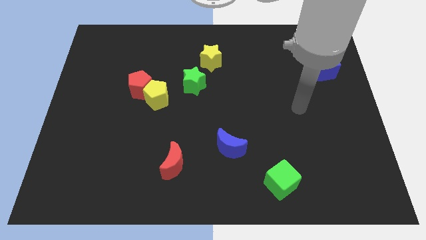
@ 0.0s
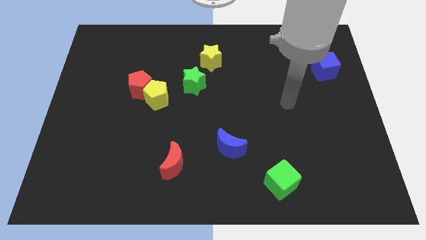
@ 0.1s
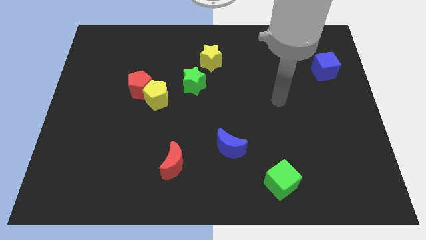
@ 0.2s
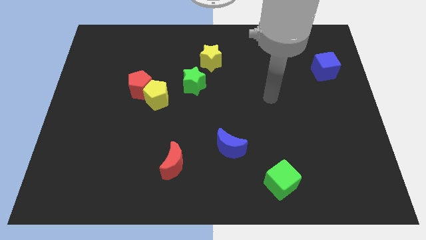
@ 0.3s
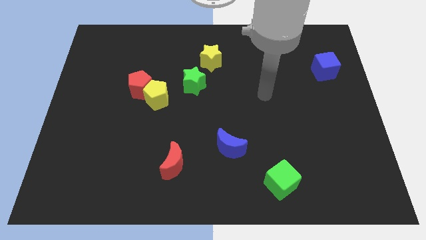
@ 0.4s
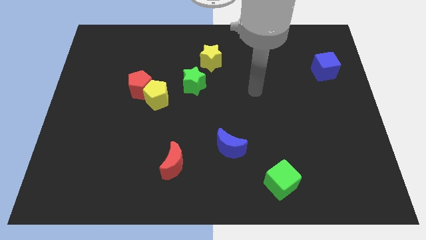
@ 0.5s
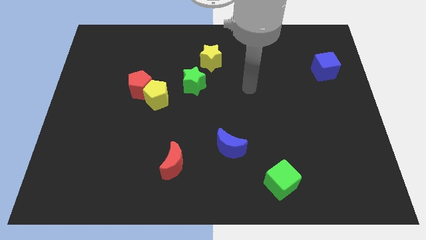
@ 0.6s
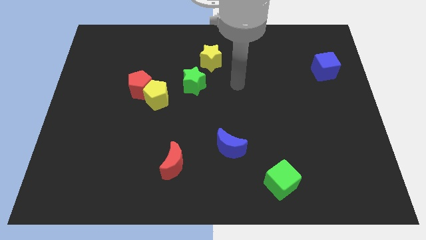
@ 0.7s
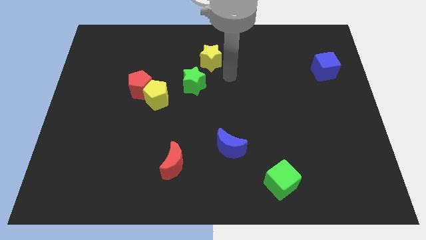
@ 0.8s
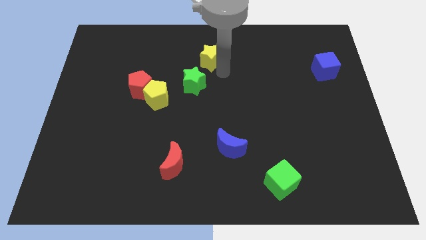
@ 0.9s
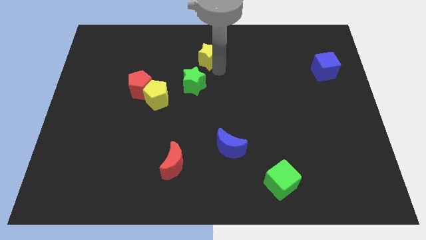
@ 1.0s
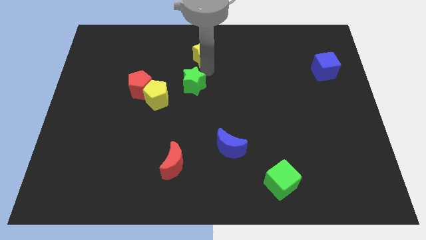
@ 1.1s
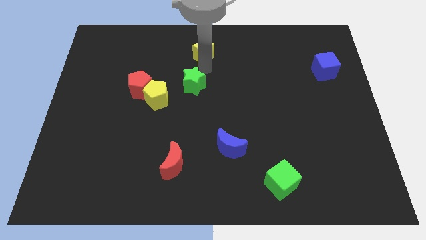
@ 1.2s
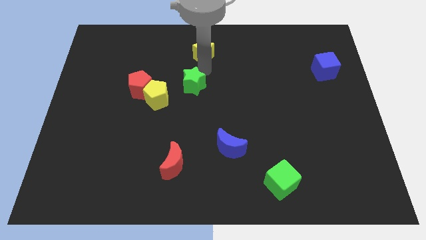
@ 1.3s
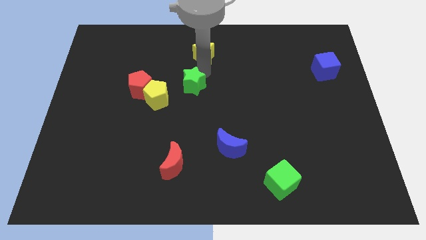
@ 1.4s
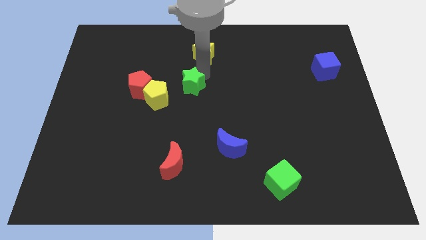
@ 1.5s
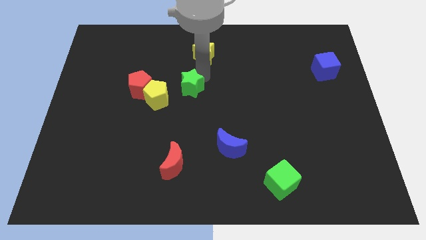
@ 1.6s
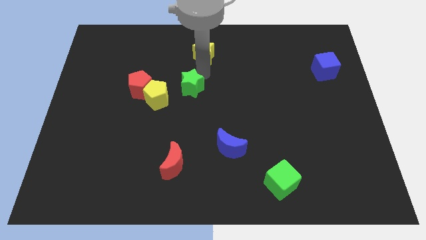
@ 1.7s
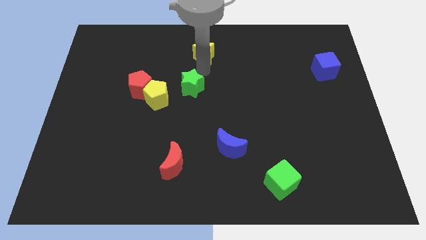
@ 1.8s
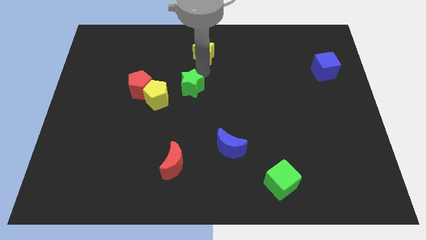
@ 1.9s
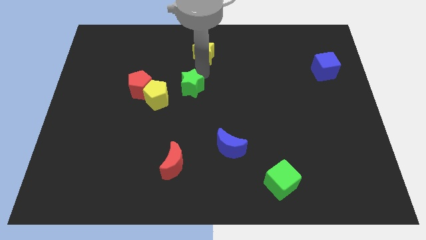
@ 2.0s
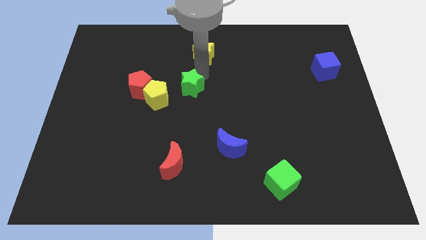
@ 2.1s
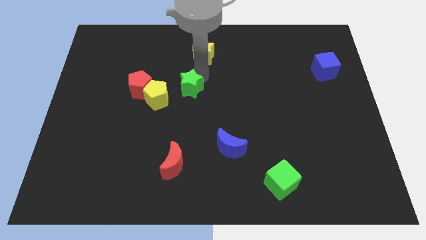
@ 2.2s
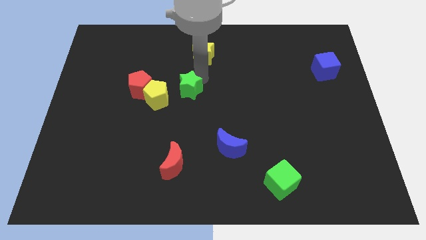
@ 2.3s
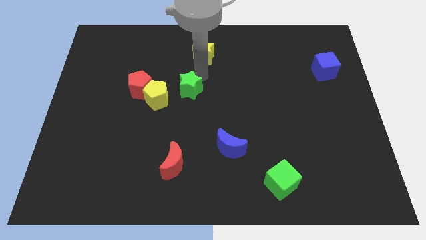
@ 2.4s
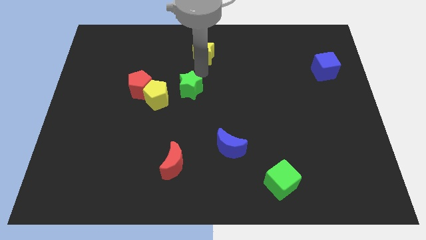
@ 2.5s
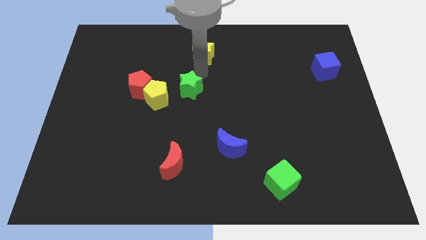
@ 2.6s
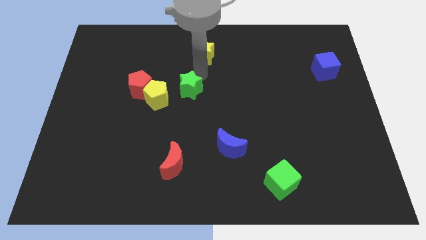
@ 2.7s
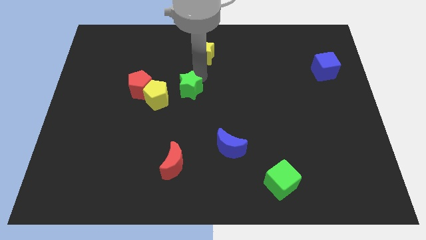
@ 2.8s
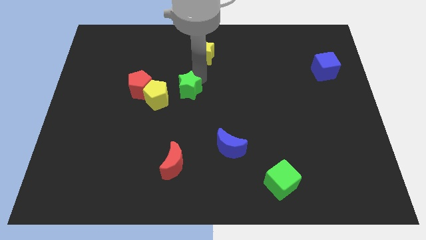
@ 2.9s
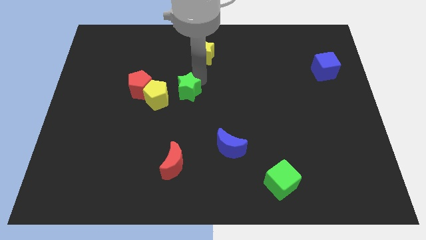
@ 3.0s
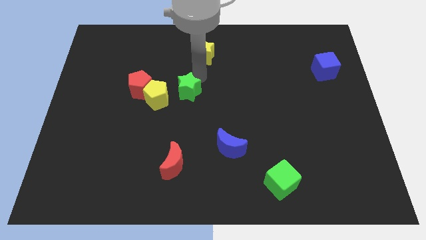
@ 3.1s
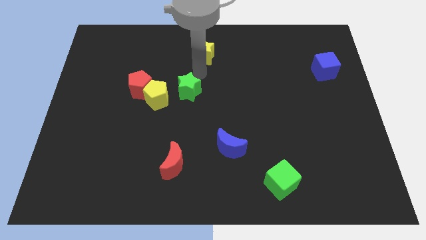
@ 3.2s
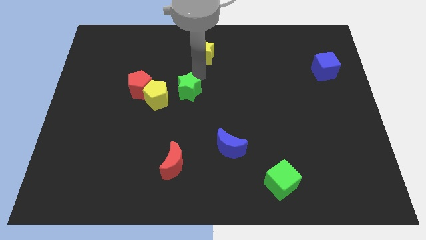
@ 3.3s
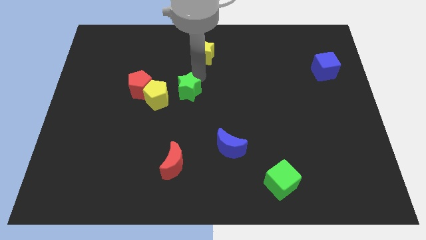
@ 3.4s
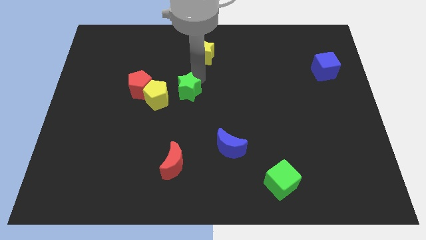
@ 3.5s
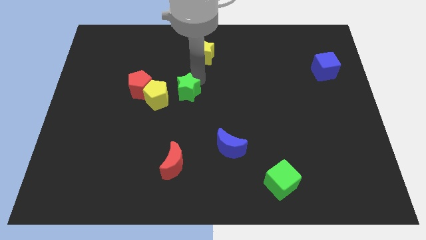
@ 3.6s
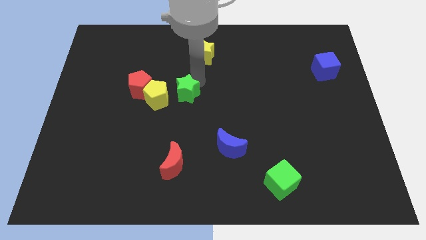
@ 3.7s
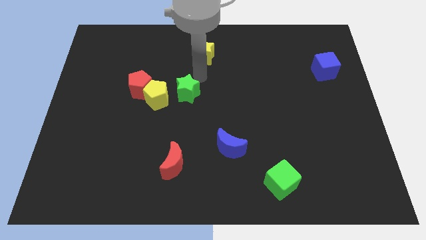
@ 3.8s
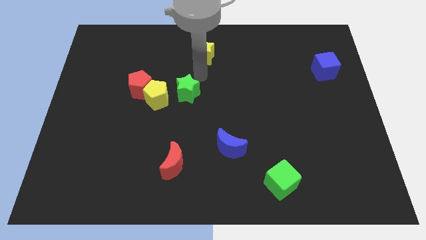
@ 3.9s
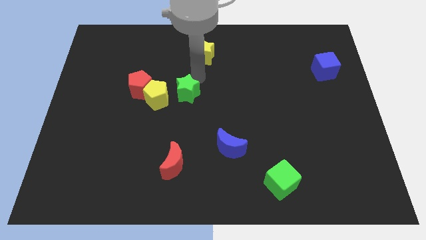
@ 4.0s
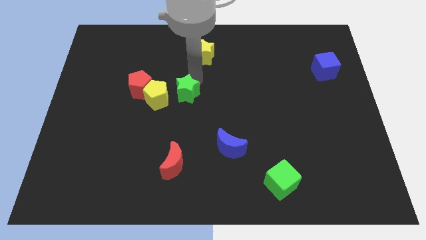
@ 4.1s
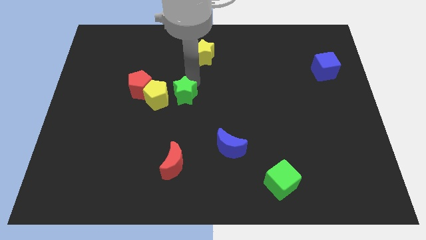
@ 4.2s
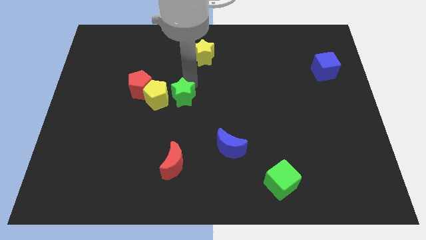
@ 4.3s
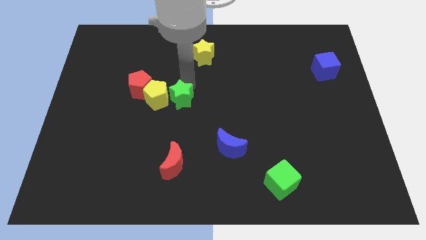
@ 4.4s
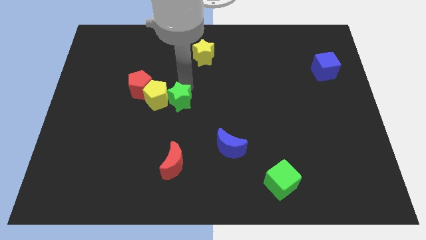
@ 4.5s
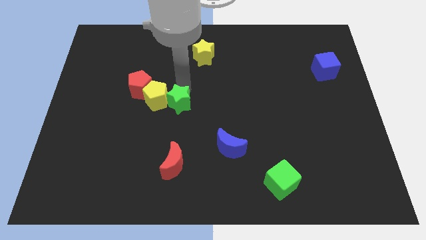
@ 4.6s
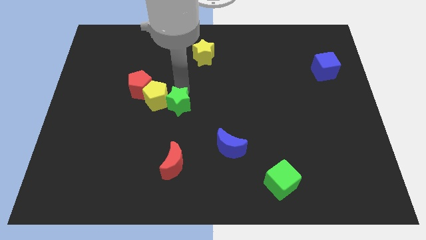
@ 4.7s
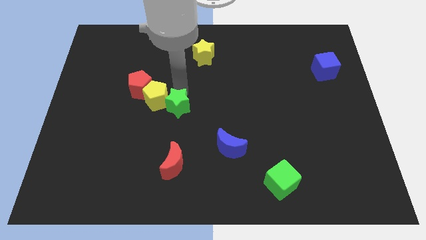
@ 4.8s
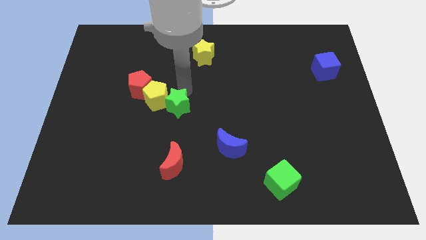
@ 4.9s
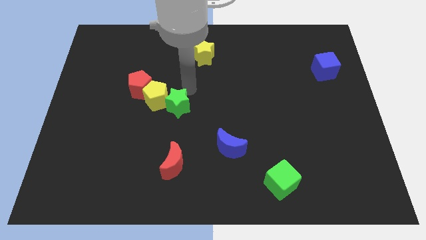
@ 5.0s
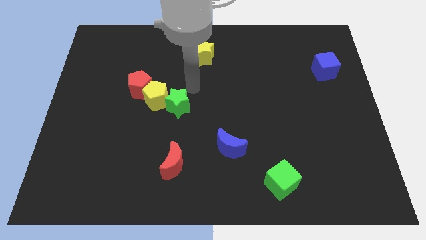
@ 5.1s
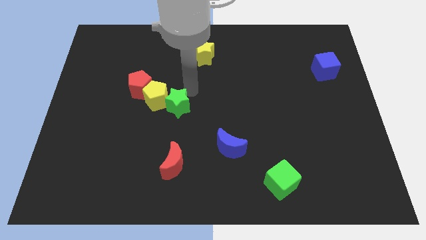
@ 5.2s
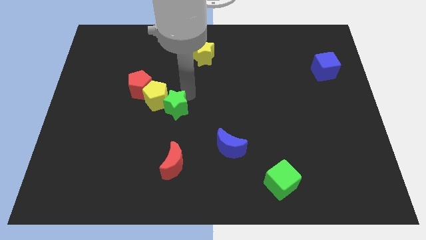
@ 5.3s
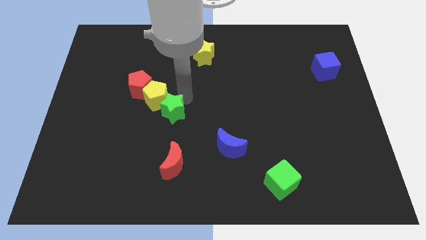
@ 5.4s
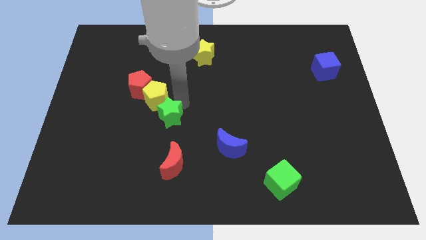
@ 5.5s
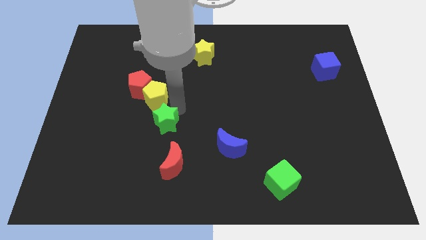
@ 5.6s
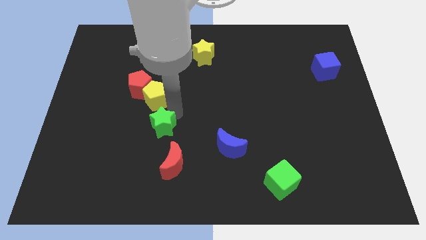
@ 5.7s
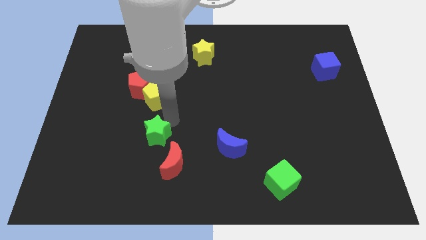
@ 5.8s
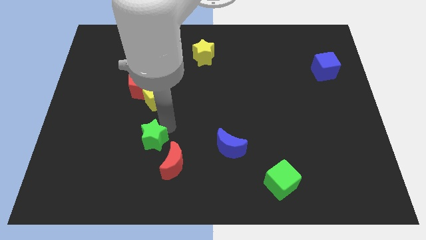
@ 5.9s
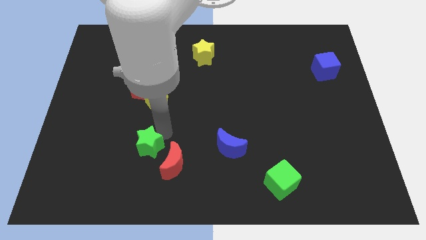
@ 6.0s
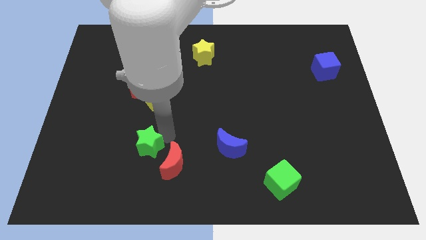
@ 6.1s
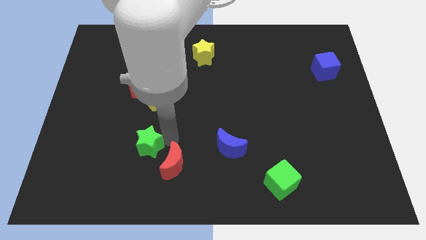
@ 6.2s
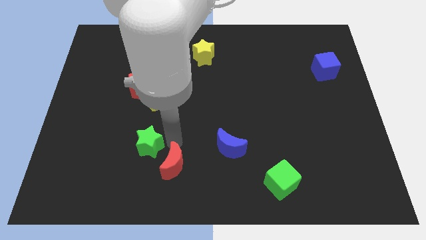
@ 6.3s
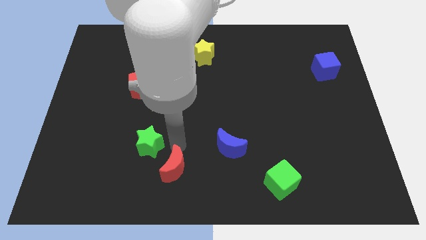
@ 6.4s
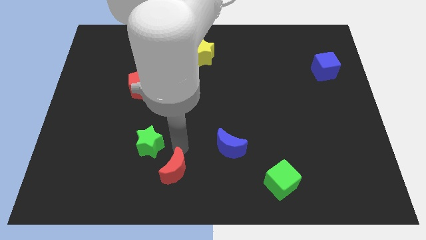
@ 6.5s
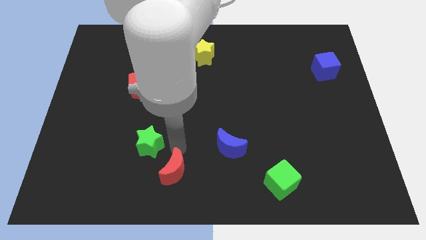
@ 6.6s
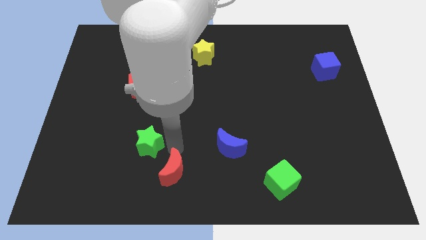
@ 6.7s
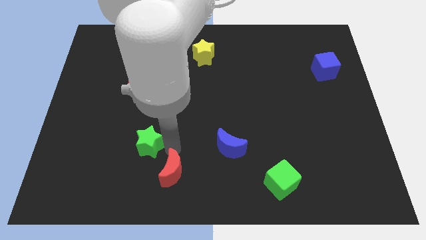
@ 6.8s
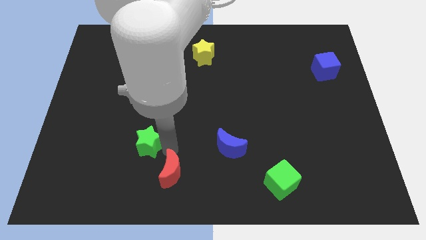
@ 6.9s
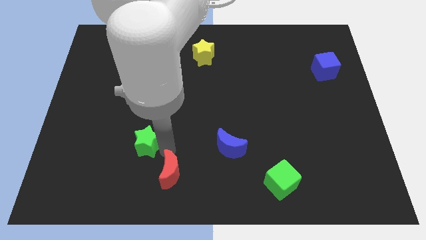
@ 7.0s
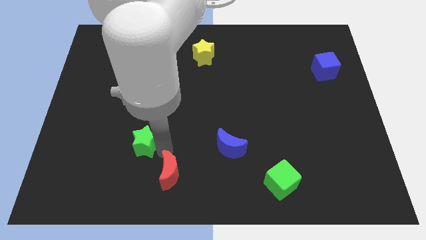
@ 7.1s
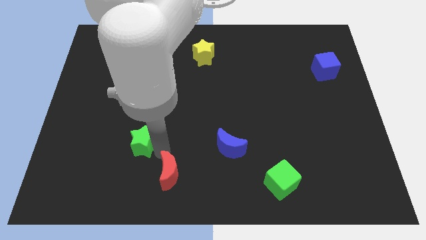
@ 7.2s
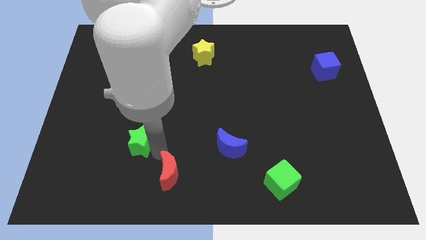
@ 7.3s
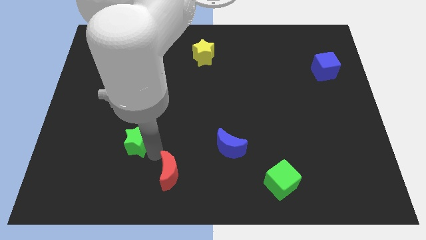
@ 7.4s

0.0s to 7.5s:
move the green star down and left diagonally

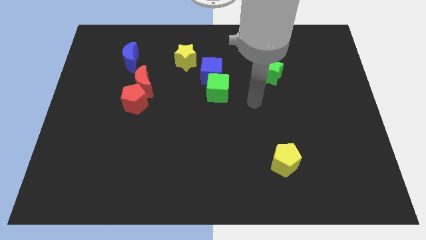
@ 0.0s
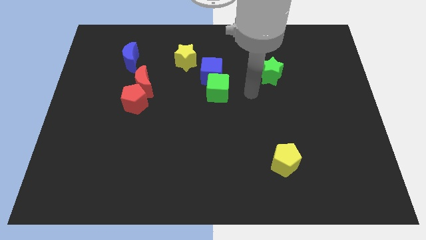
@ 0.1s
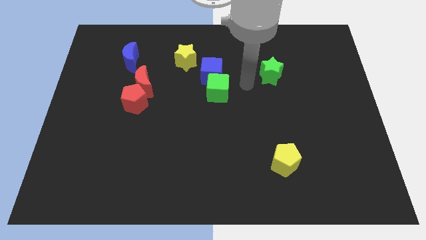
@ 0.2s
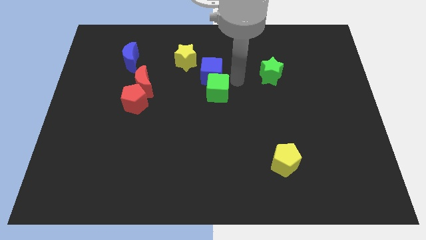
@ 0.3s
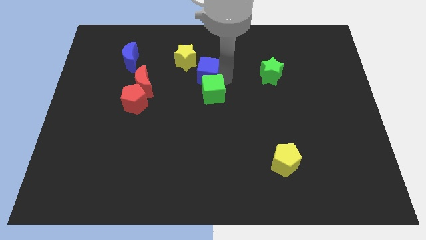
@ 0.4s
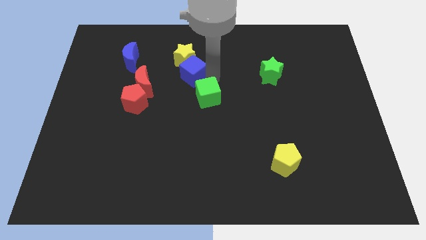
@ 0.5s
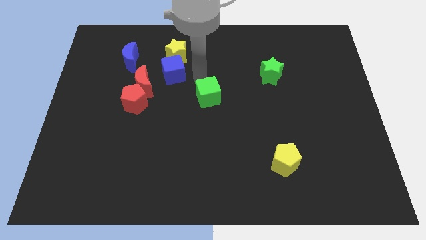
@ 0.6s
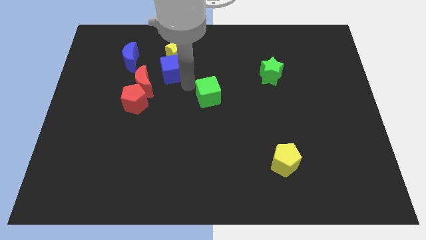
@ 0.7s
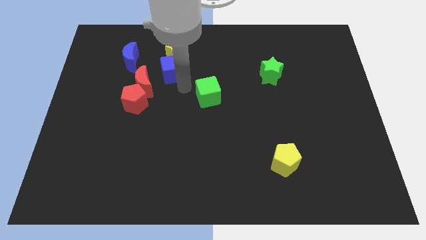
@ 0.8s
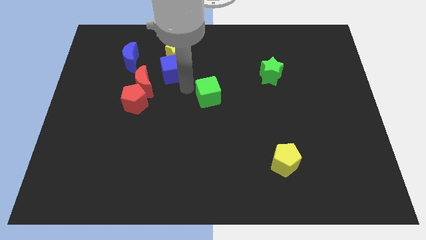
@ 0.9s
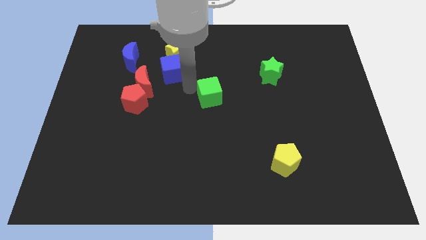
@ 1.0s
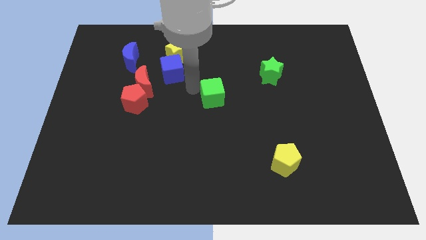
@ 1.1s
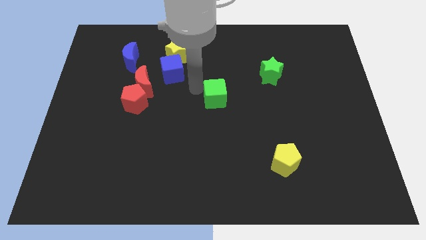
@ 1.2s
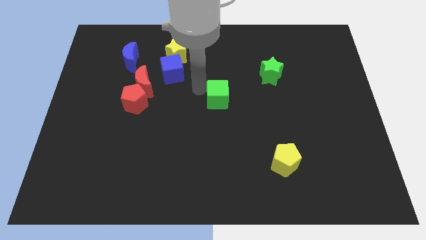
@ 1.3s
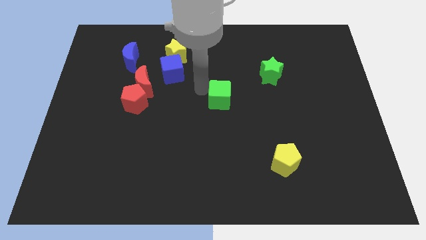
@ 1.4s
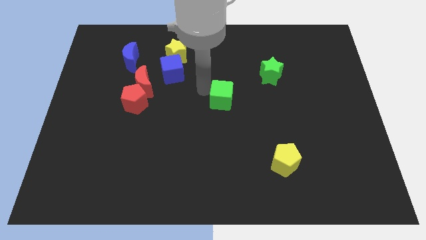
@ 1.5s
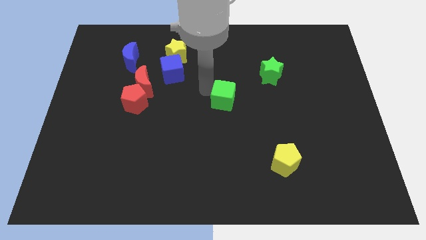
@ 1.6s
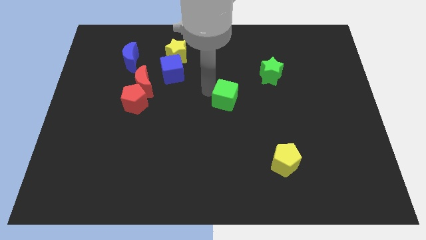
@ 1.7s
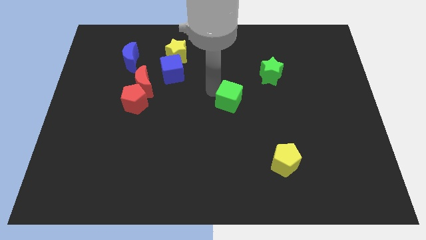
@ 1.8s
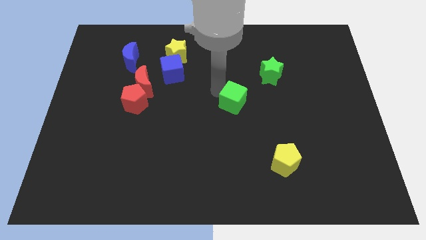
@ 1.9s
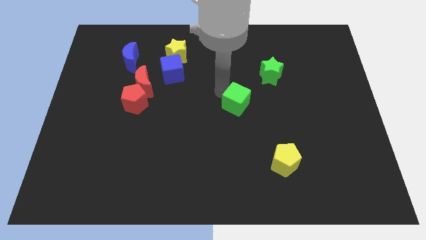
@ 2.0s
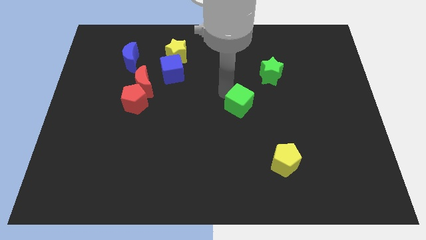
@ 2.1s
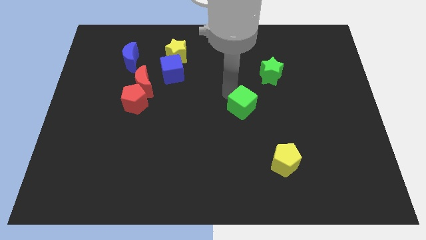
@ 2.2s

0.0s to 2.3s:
push the green cube a little bit down and right diagonally
